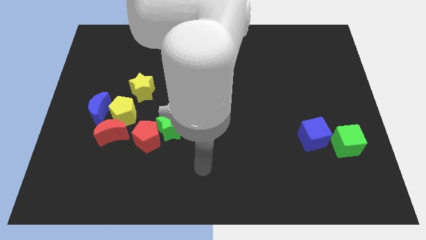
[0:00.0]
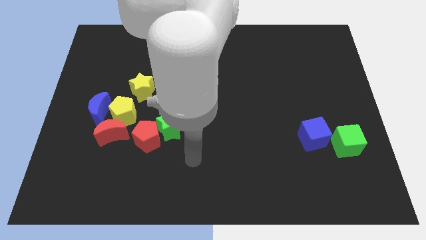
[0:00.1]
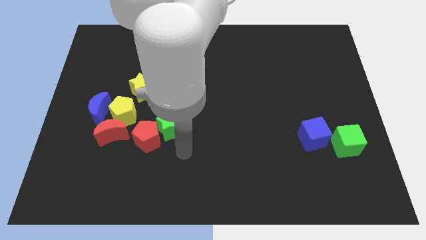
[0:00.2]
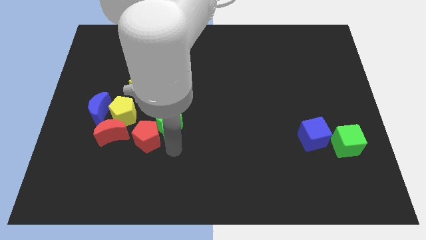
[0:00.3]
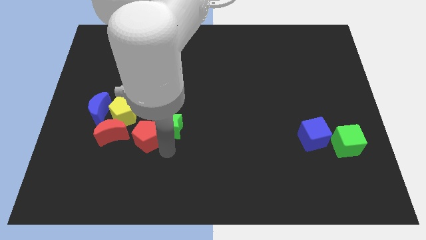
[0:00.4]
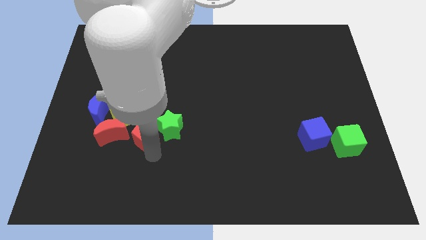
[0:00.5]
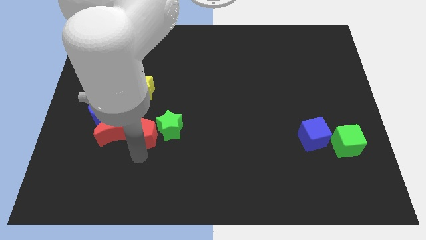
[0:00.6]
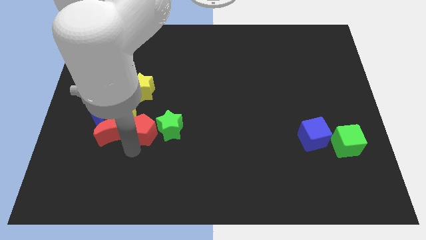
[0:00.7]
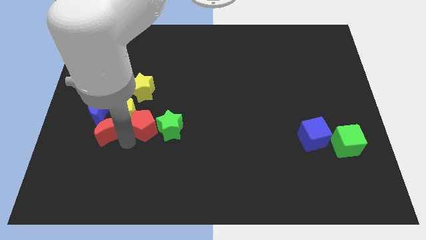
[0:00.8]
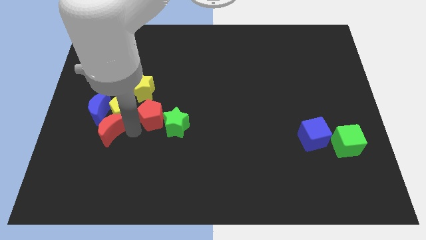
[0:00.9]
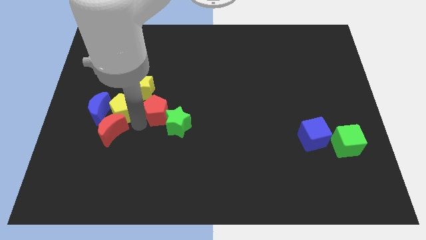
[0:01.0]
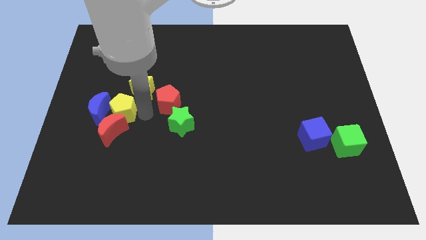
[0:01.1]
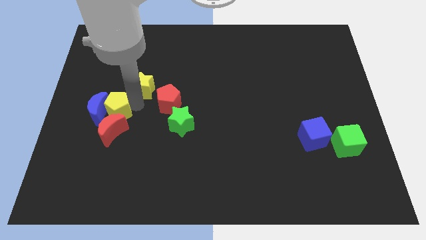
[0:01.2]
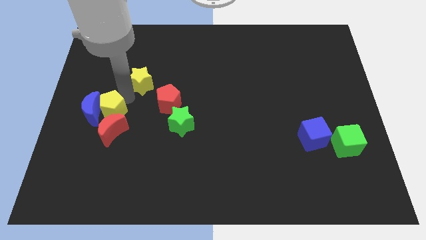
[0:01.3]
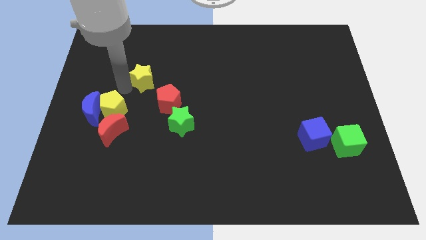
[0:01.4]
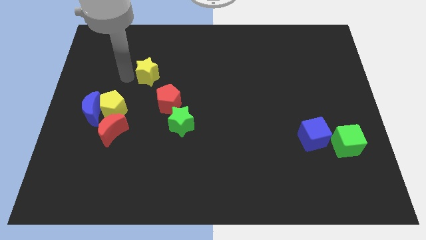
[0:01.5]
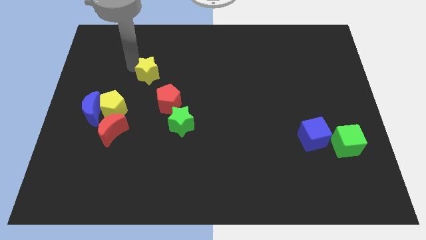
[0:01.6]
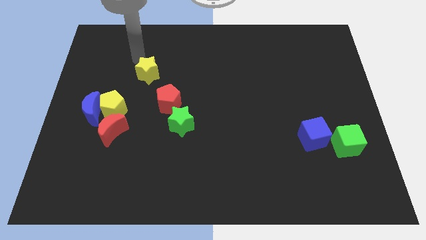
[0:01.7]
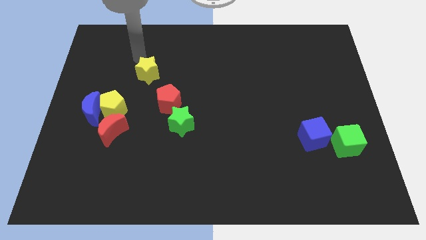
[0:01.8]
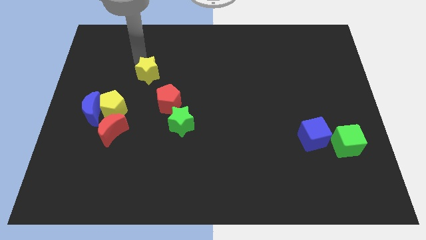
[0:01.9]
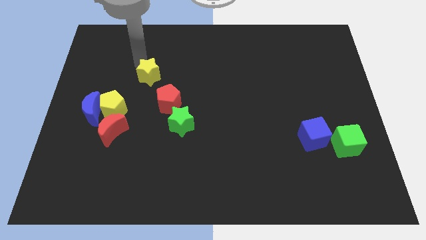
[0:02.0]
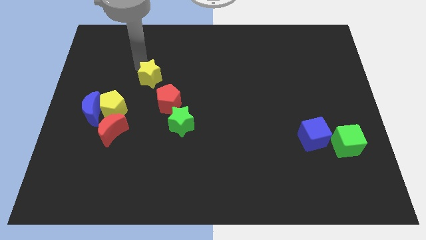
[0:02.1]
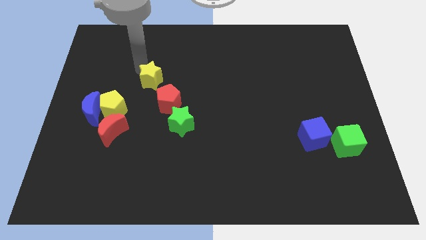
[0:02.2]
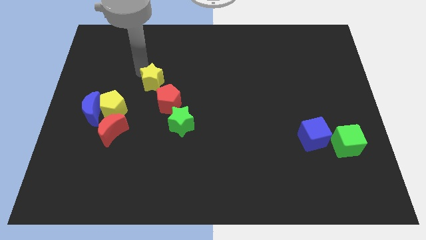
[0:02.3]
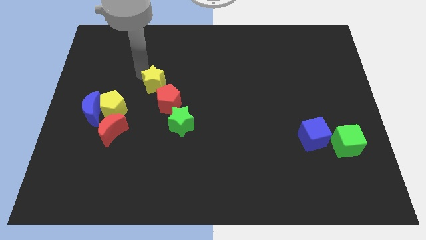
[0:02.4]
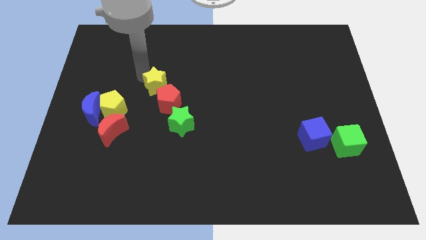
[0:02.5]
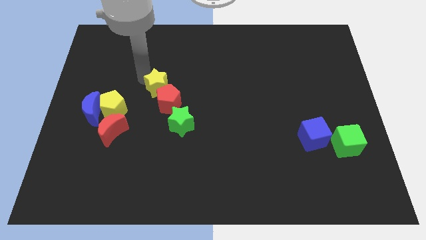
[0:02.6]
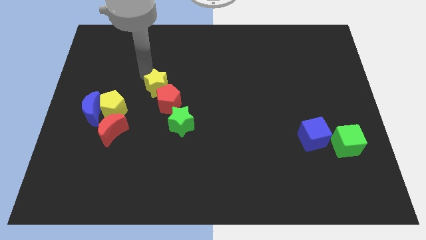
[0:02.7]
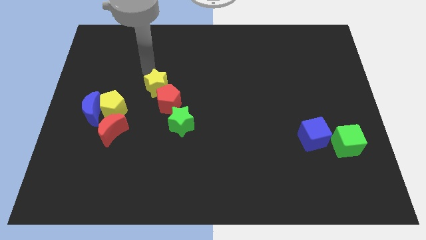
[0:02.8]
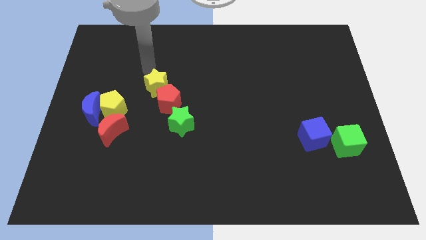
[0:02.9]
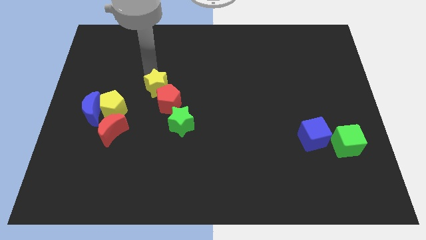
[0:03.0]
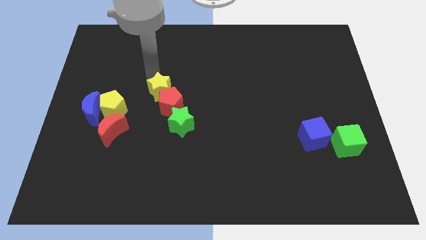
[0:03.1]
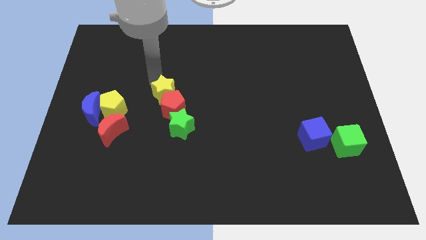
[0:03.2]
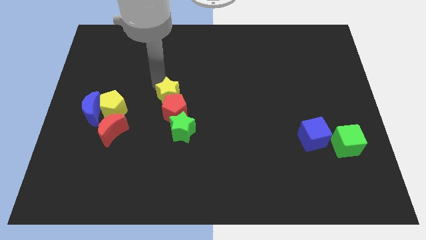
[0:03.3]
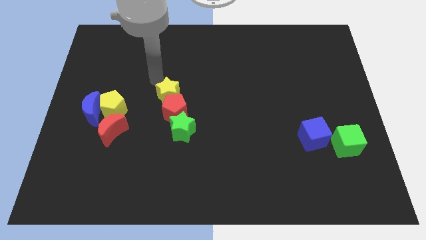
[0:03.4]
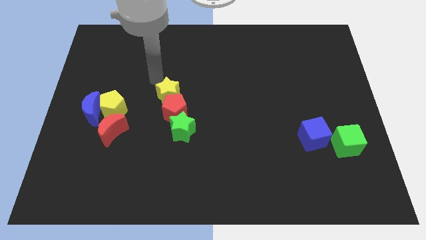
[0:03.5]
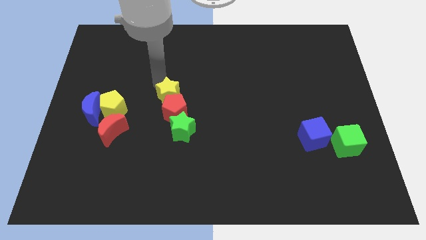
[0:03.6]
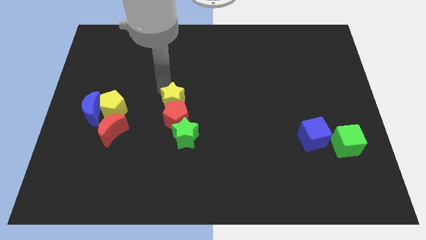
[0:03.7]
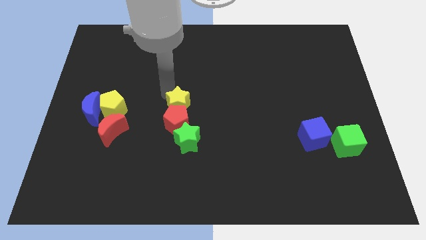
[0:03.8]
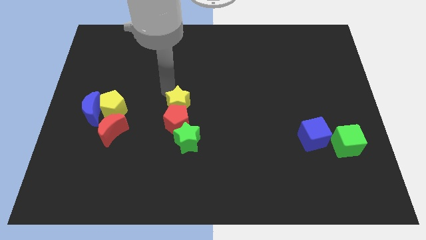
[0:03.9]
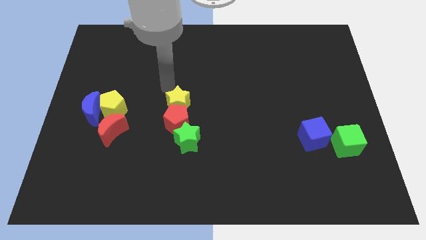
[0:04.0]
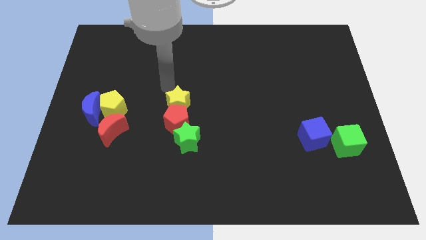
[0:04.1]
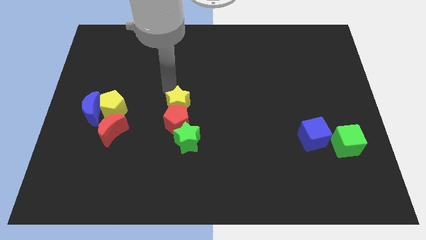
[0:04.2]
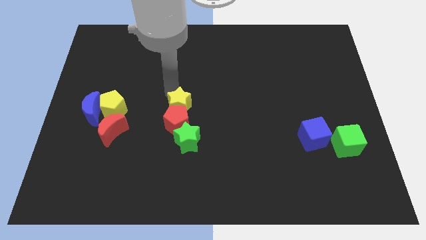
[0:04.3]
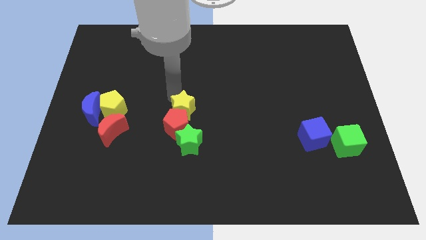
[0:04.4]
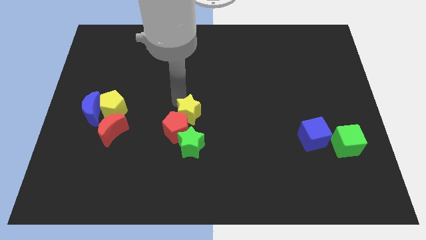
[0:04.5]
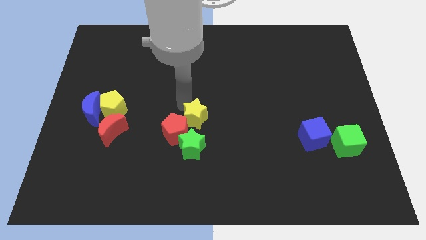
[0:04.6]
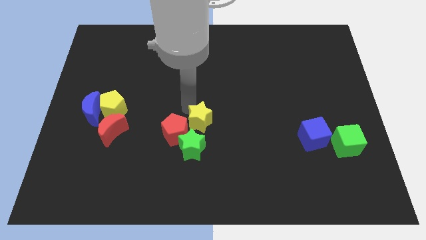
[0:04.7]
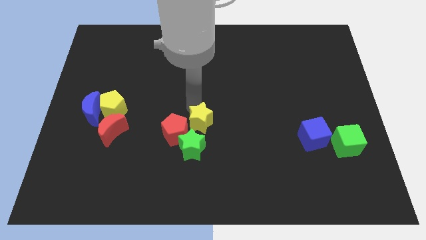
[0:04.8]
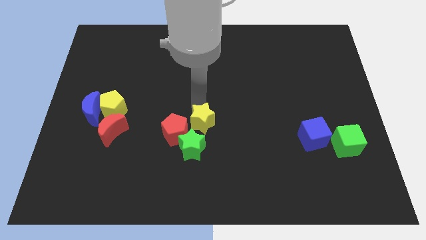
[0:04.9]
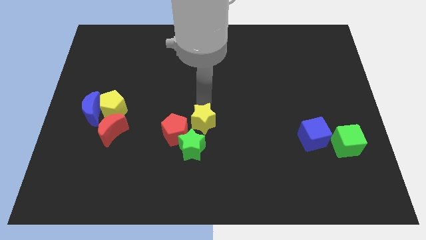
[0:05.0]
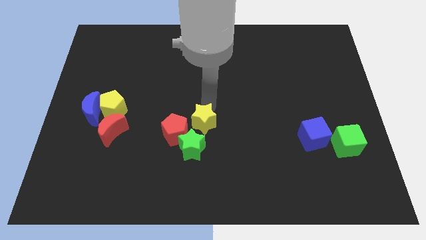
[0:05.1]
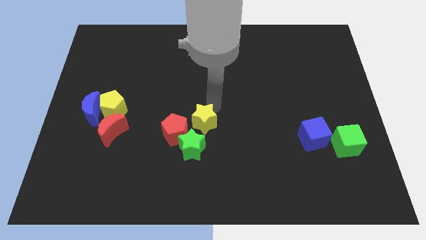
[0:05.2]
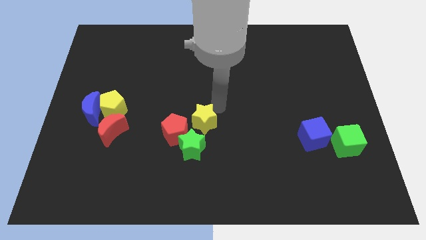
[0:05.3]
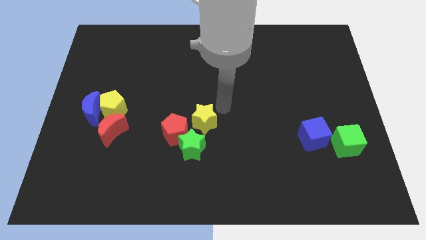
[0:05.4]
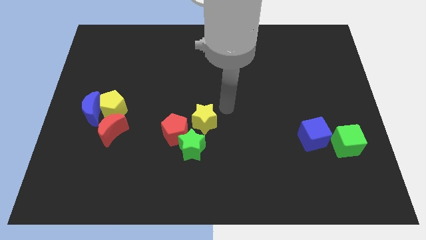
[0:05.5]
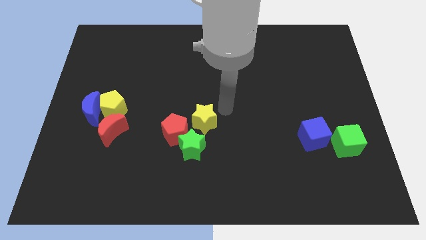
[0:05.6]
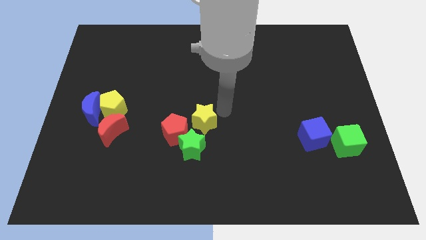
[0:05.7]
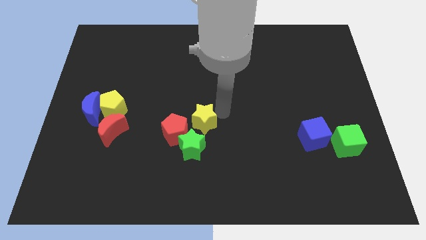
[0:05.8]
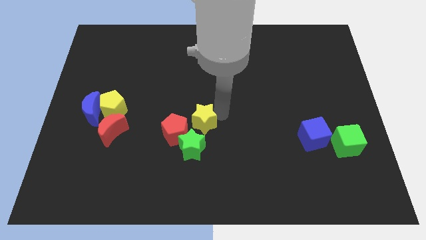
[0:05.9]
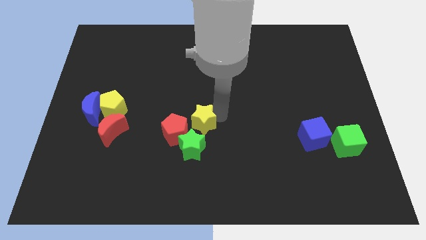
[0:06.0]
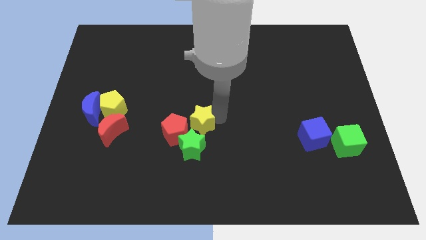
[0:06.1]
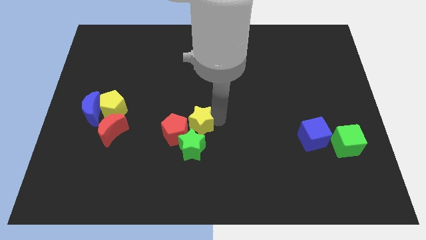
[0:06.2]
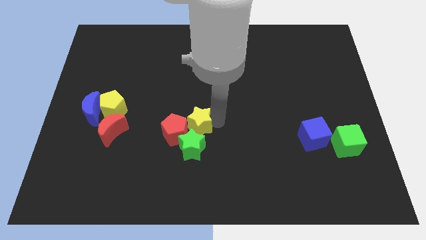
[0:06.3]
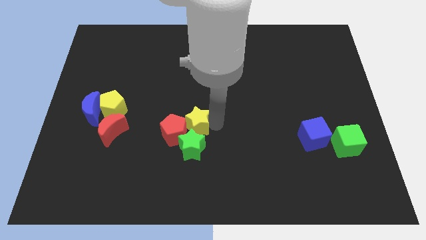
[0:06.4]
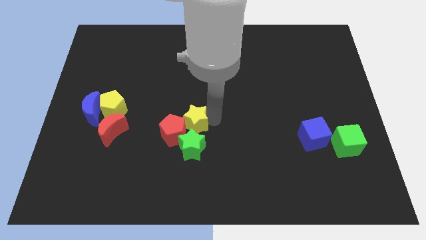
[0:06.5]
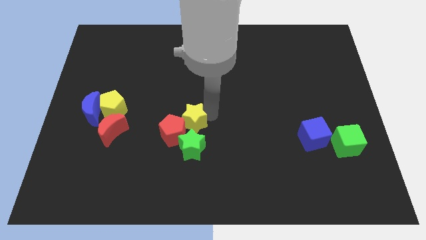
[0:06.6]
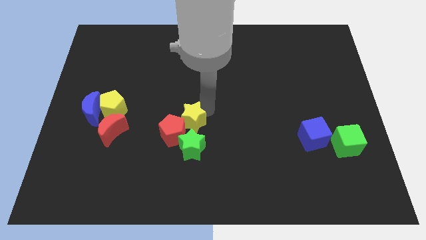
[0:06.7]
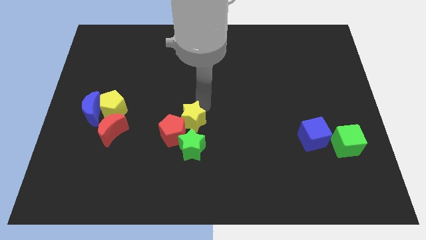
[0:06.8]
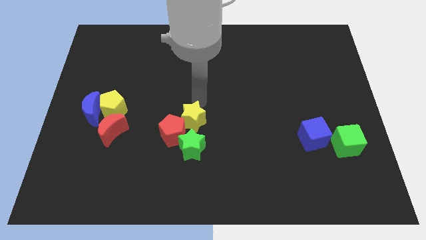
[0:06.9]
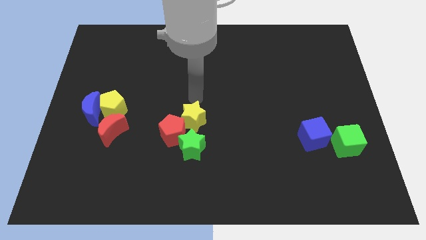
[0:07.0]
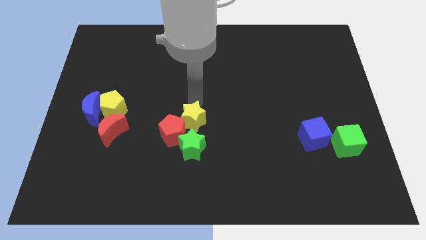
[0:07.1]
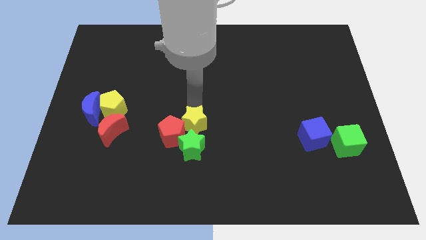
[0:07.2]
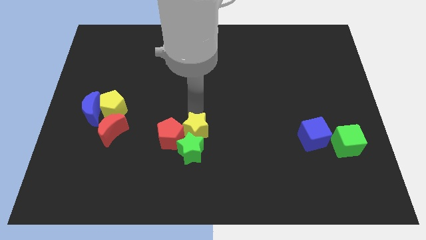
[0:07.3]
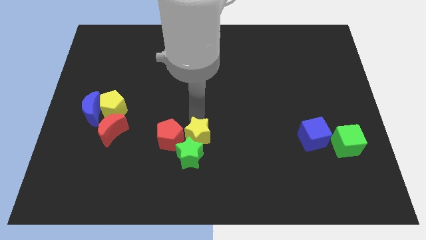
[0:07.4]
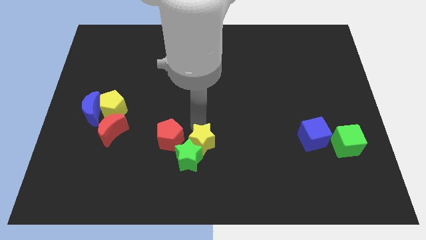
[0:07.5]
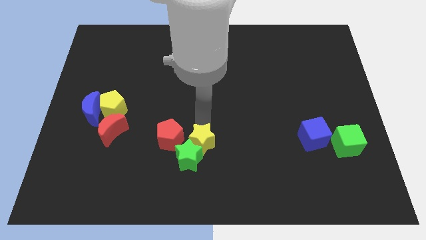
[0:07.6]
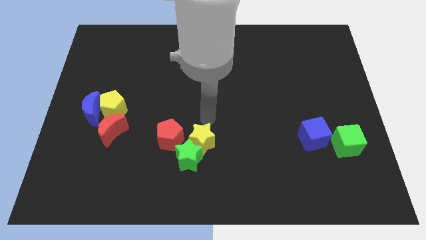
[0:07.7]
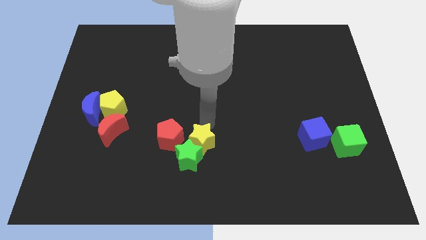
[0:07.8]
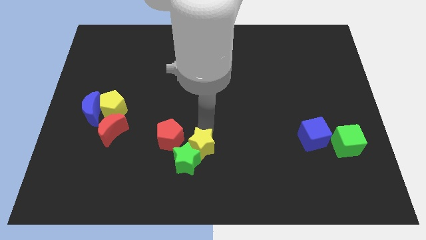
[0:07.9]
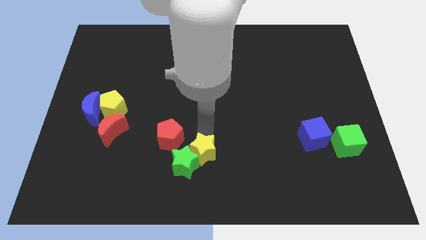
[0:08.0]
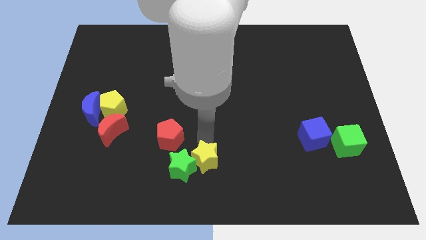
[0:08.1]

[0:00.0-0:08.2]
slide the yellow star to the bottom side
